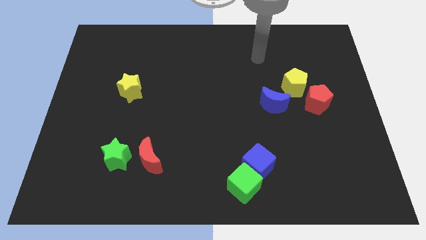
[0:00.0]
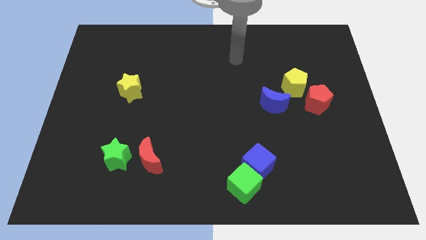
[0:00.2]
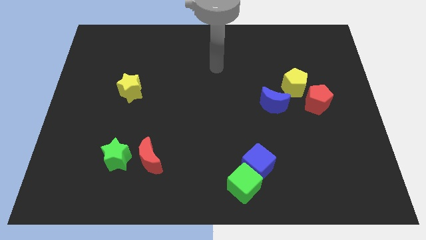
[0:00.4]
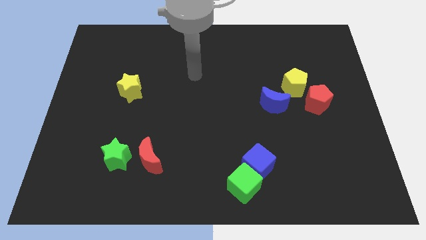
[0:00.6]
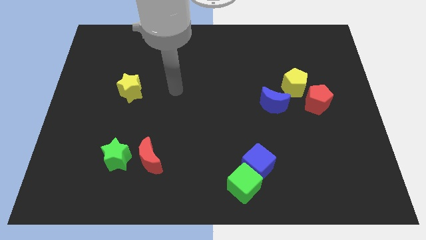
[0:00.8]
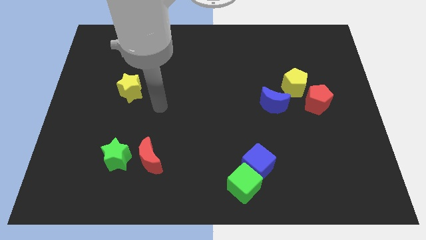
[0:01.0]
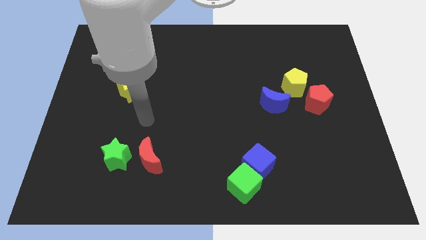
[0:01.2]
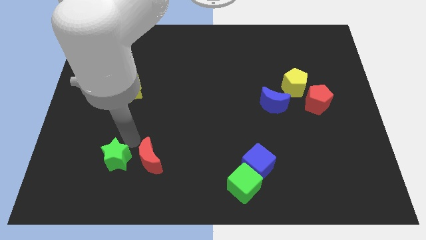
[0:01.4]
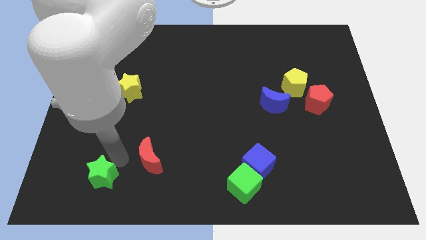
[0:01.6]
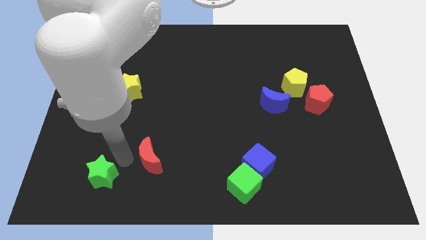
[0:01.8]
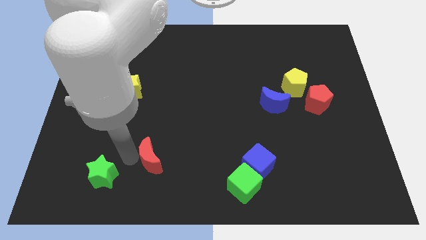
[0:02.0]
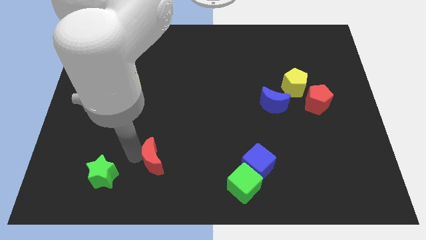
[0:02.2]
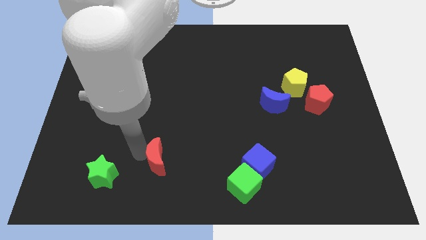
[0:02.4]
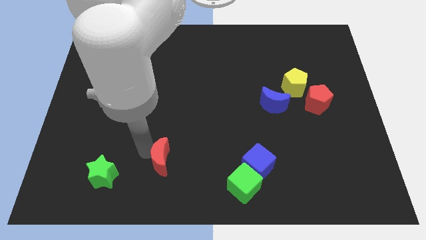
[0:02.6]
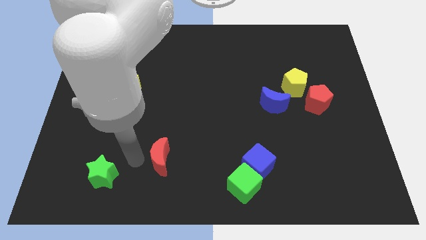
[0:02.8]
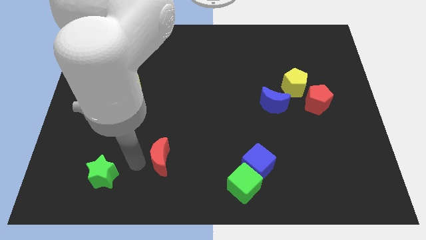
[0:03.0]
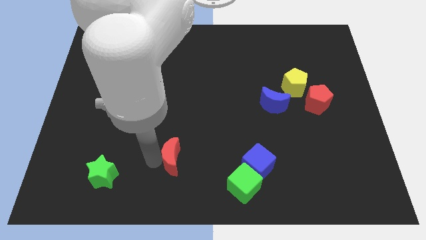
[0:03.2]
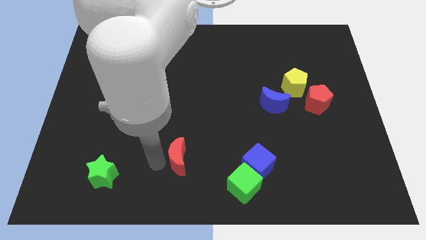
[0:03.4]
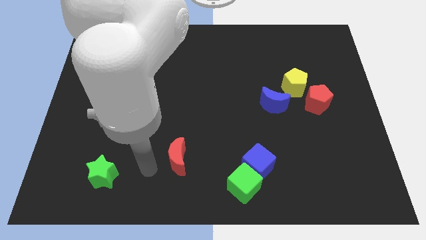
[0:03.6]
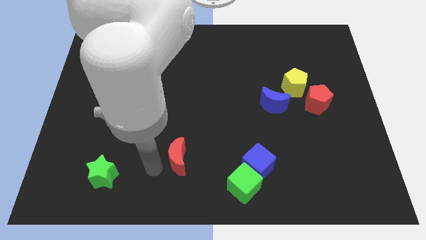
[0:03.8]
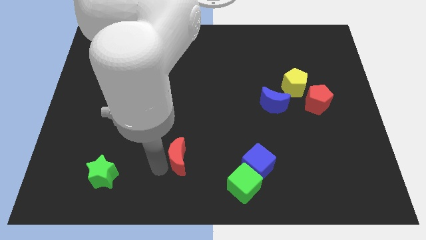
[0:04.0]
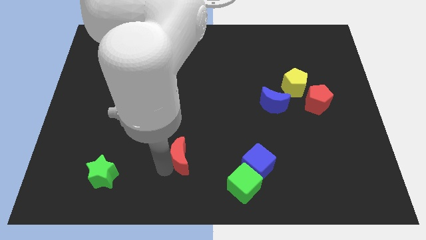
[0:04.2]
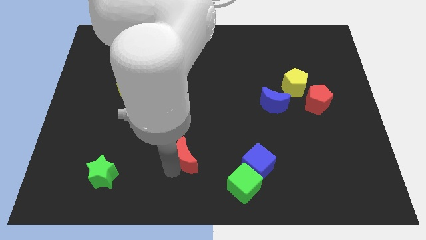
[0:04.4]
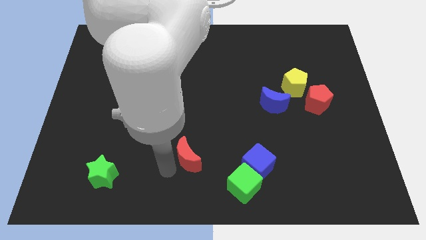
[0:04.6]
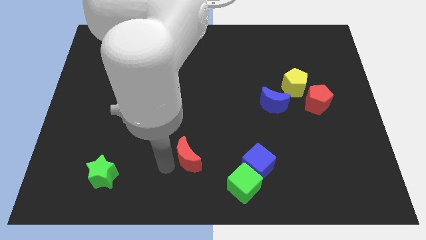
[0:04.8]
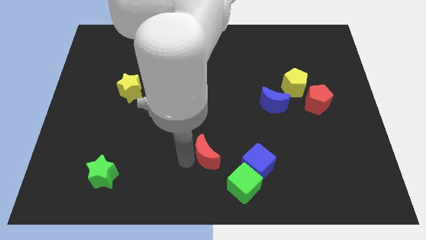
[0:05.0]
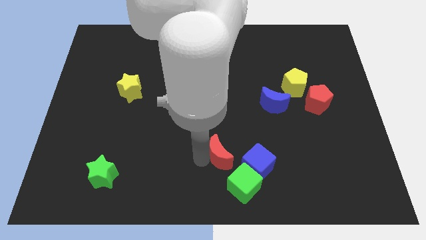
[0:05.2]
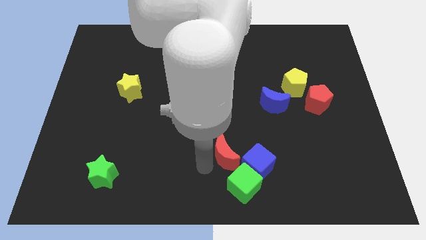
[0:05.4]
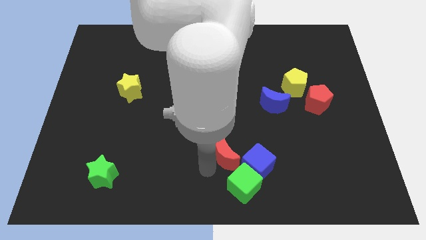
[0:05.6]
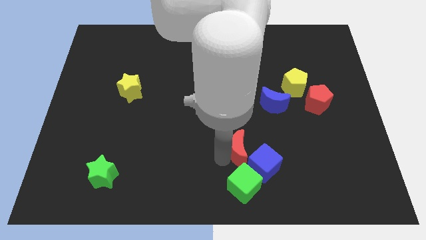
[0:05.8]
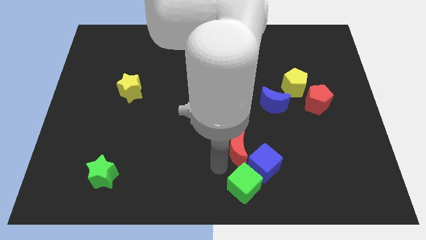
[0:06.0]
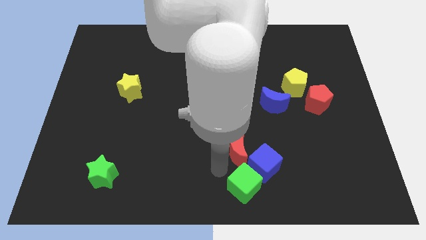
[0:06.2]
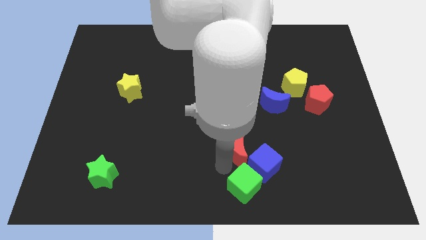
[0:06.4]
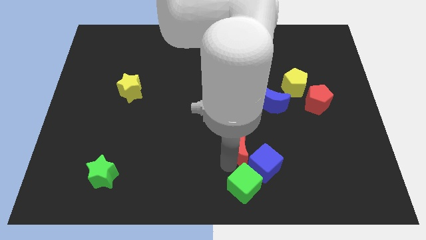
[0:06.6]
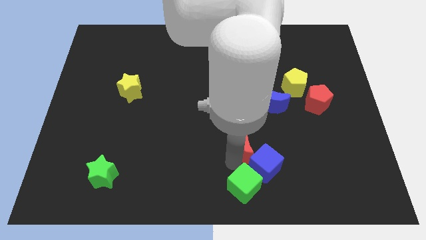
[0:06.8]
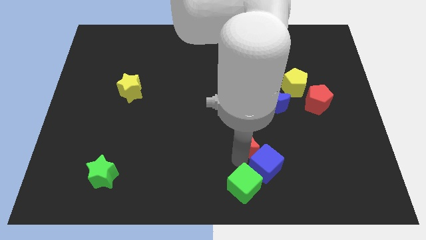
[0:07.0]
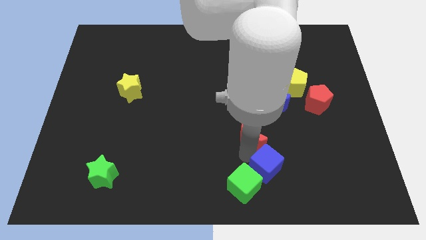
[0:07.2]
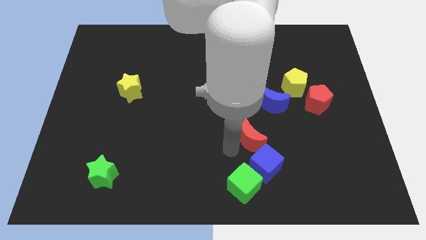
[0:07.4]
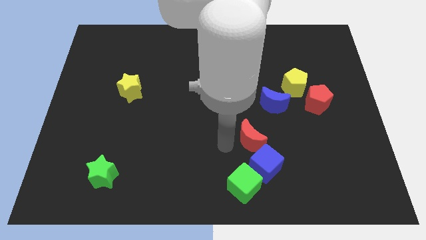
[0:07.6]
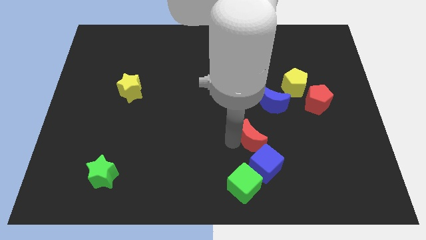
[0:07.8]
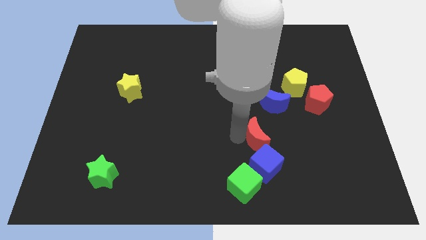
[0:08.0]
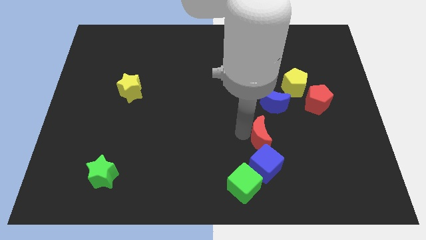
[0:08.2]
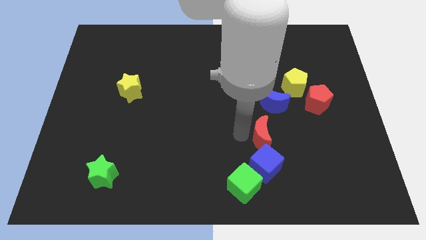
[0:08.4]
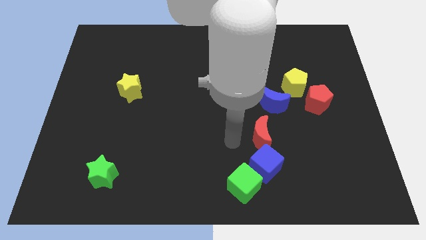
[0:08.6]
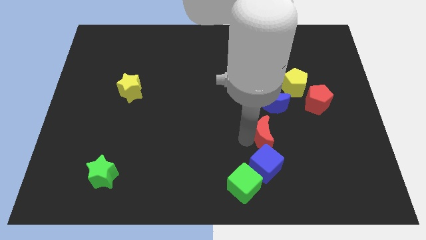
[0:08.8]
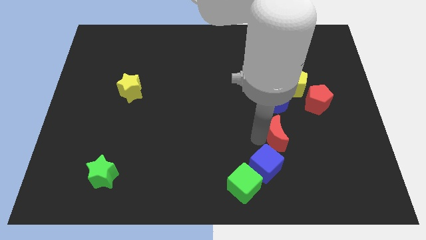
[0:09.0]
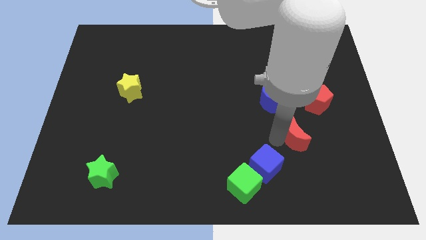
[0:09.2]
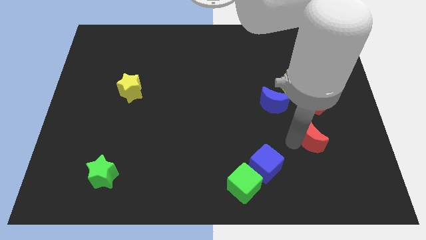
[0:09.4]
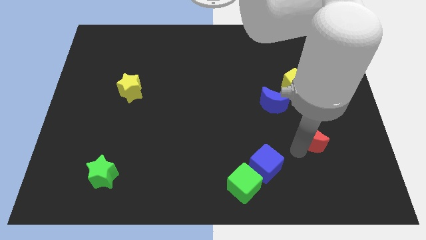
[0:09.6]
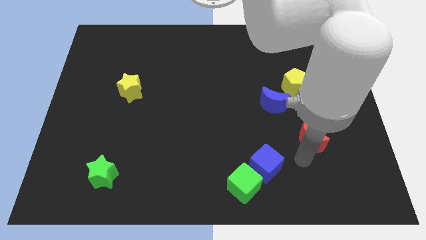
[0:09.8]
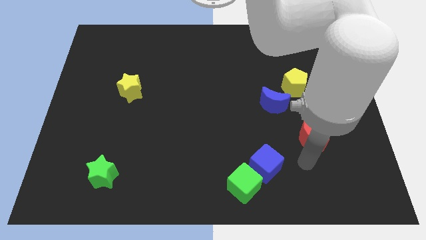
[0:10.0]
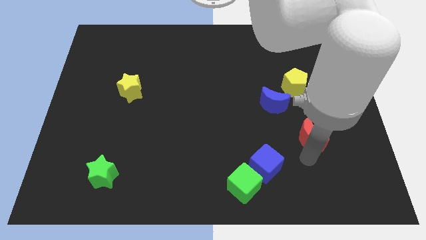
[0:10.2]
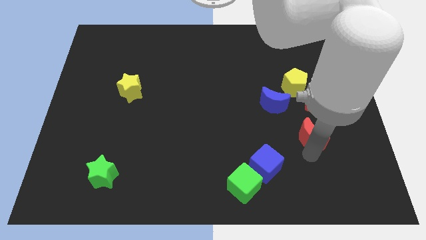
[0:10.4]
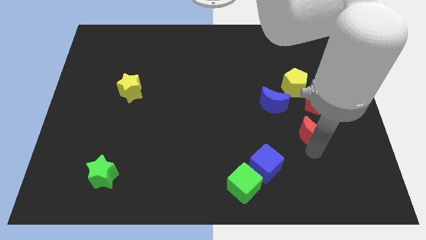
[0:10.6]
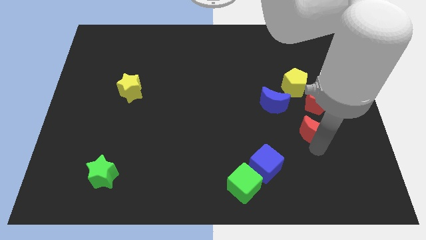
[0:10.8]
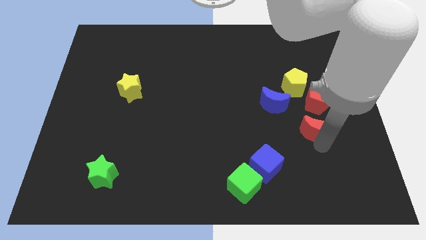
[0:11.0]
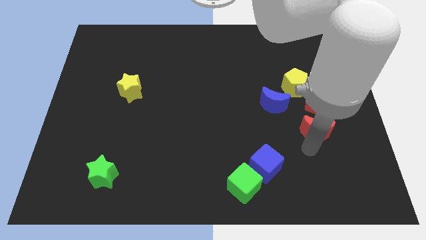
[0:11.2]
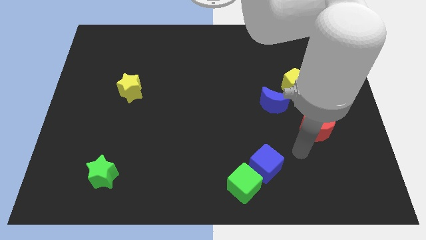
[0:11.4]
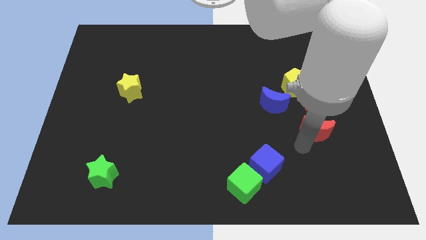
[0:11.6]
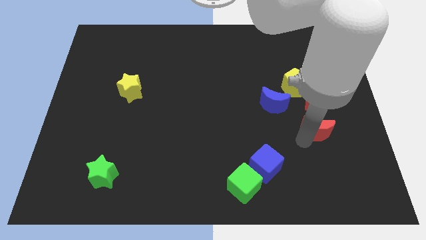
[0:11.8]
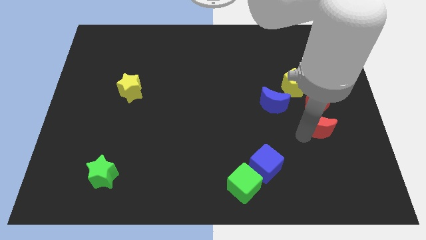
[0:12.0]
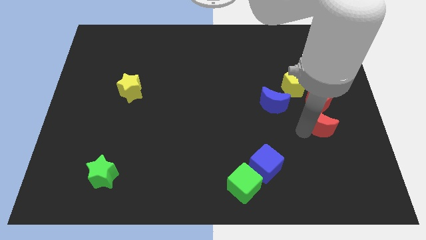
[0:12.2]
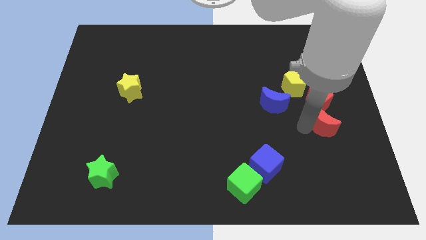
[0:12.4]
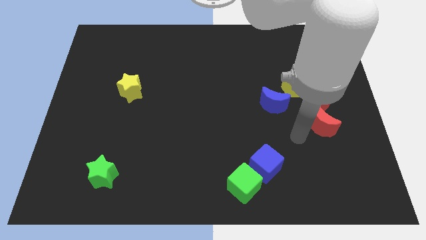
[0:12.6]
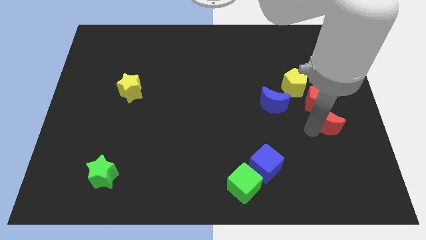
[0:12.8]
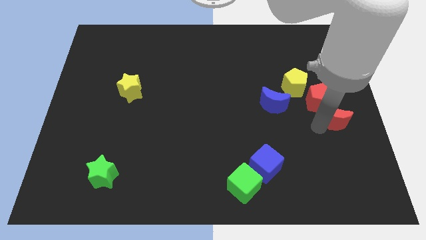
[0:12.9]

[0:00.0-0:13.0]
move the red moon to the right side of the board
